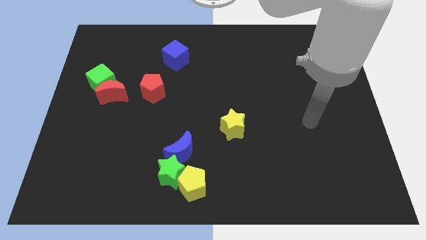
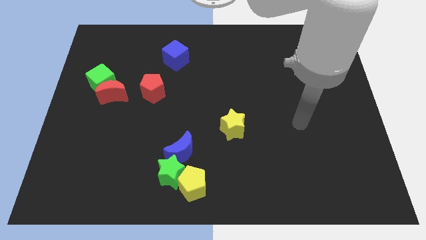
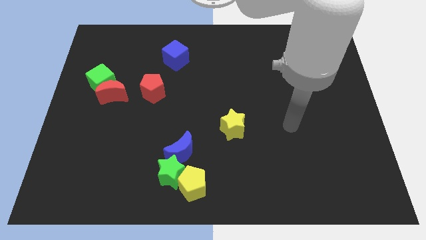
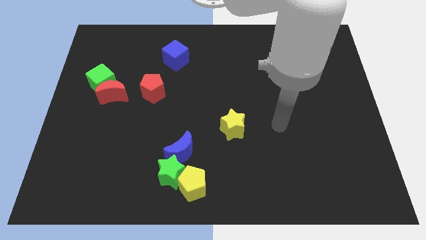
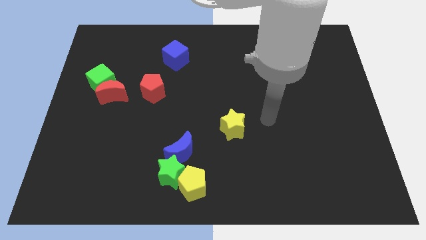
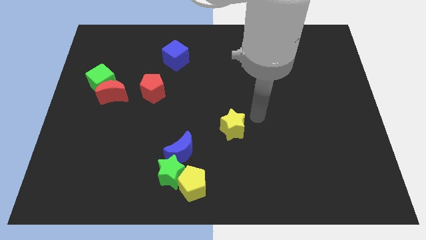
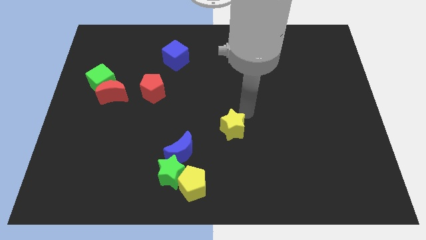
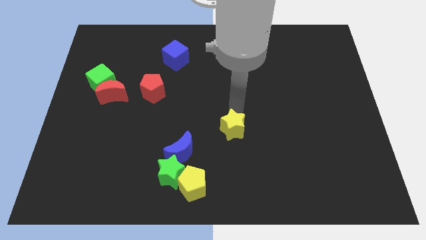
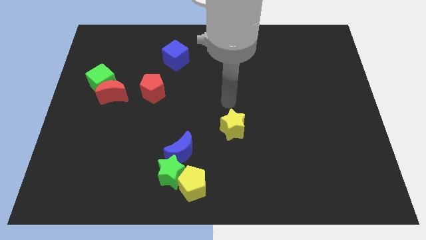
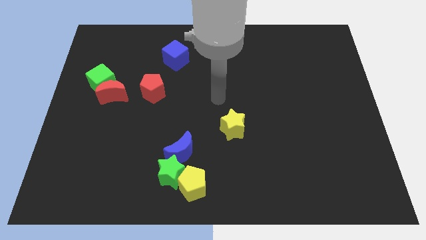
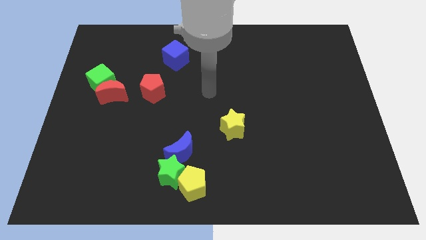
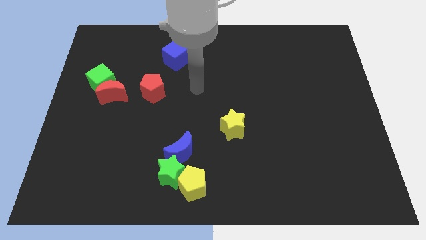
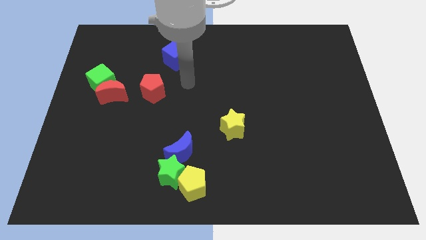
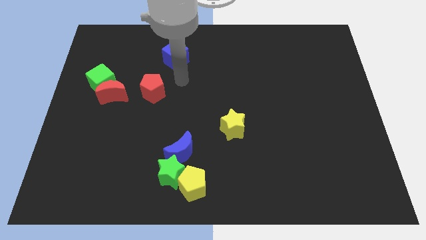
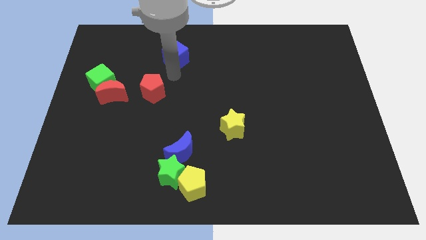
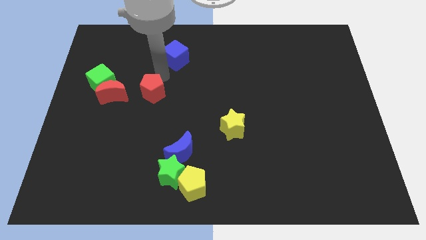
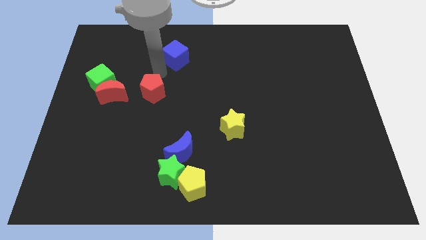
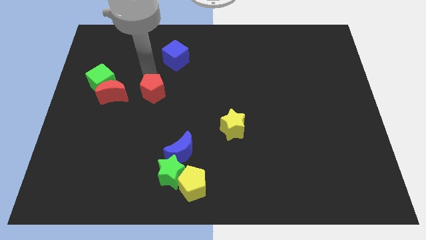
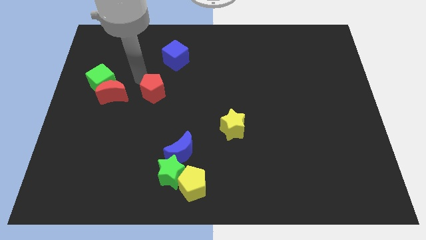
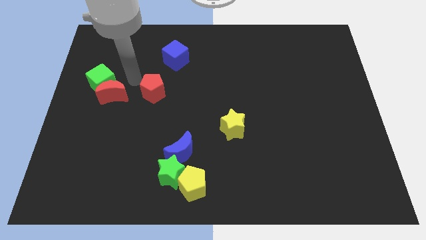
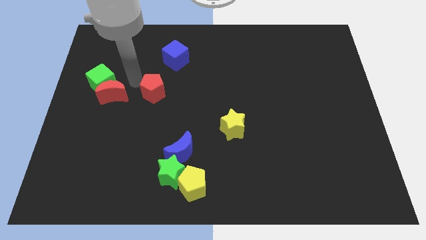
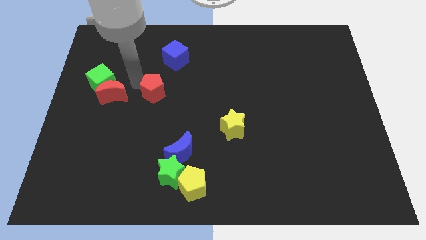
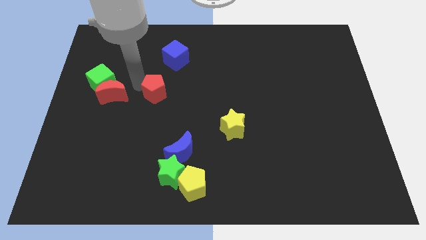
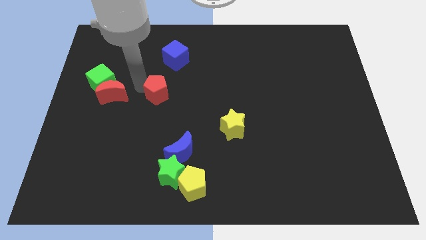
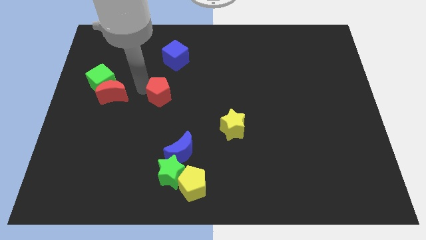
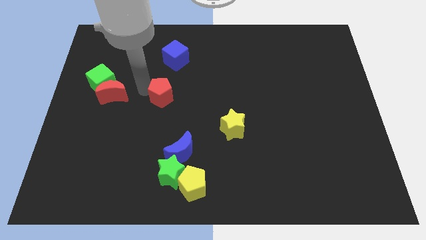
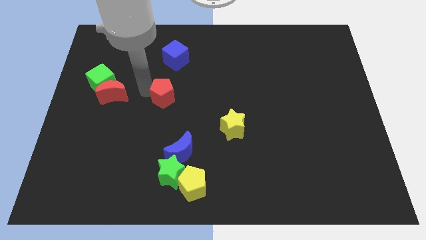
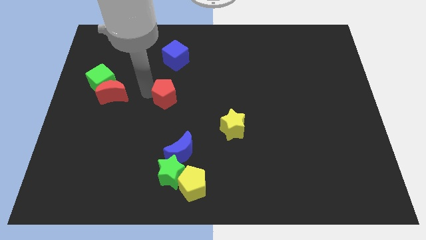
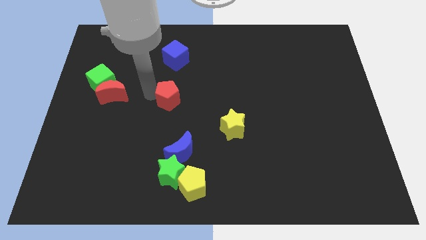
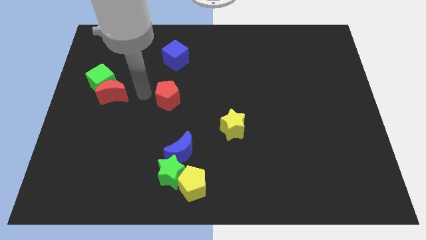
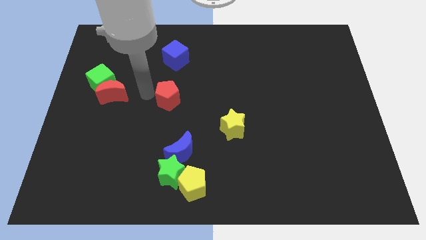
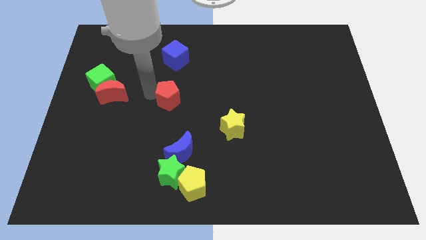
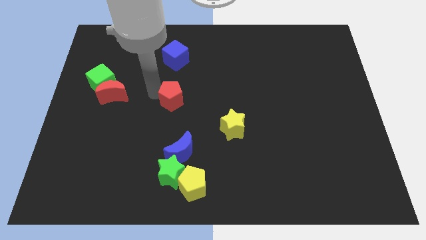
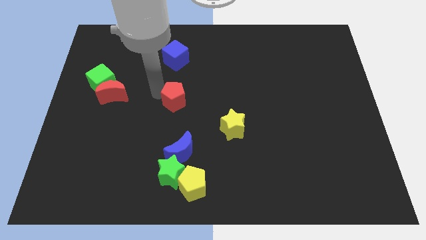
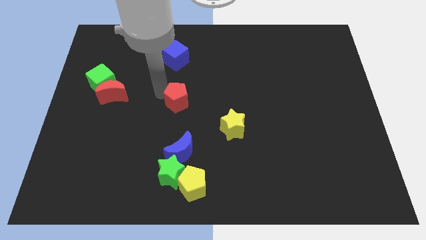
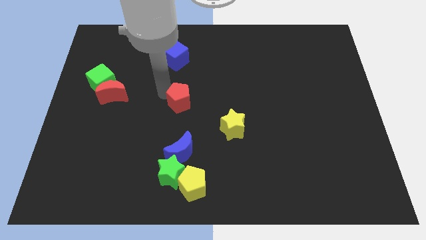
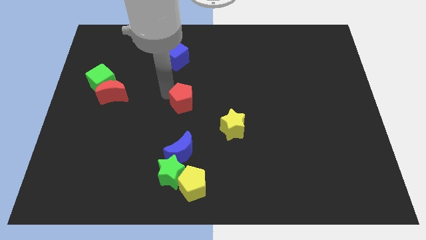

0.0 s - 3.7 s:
push the red pentagon right somewhat

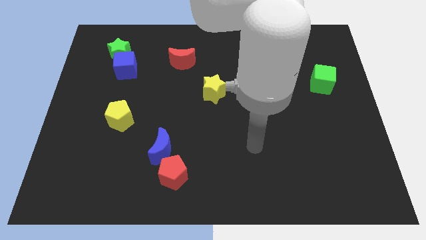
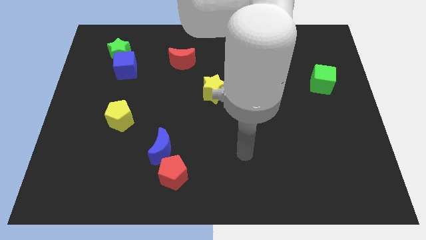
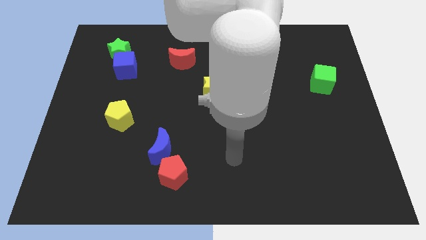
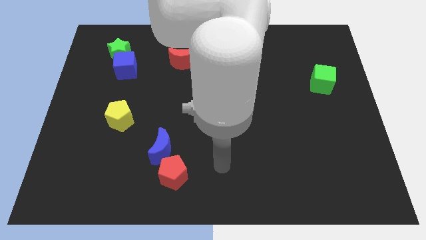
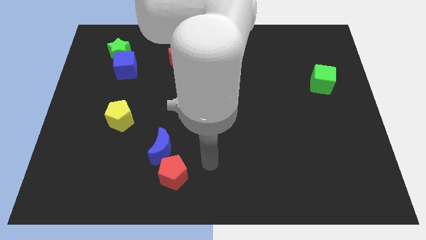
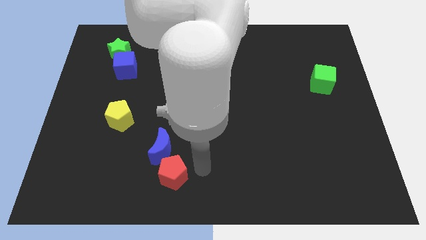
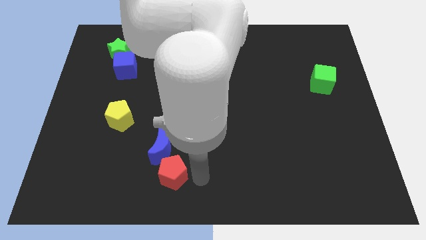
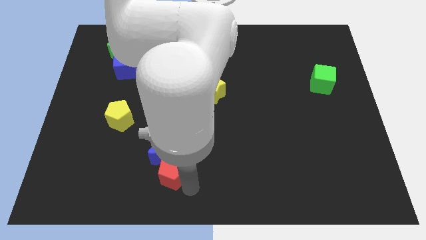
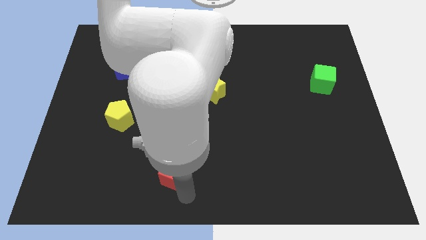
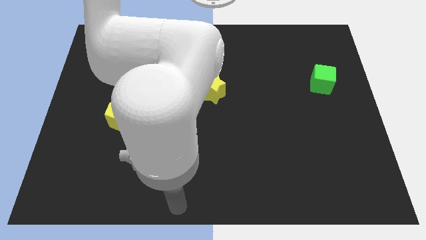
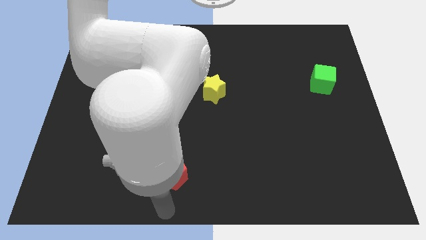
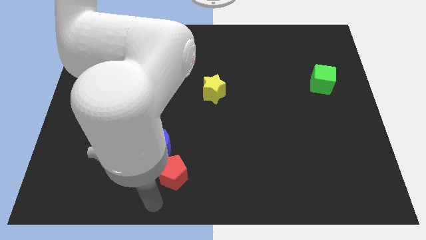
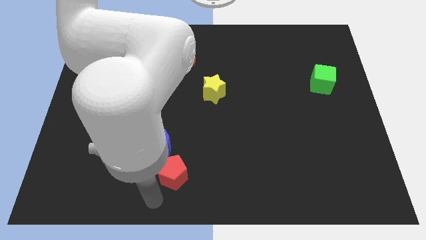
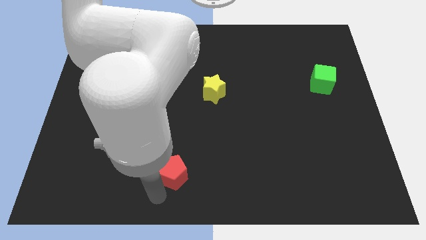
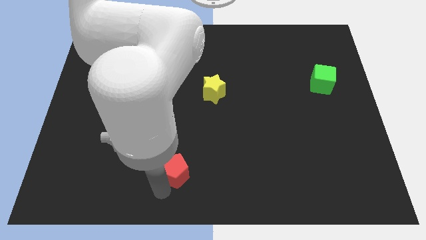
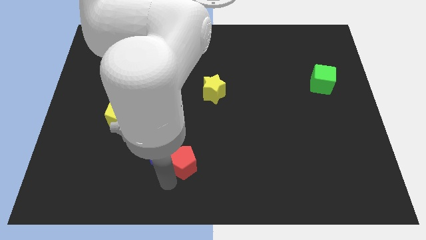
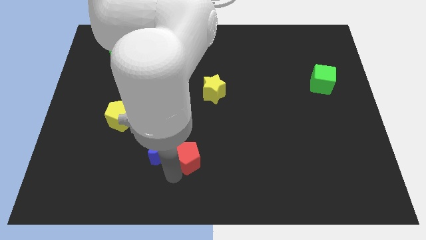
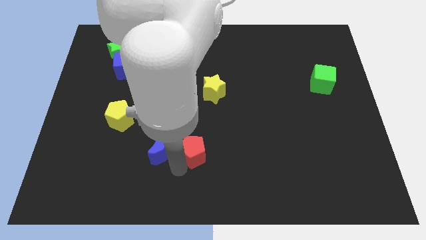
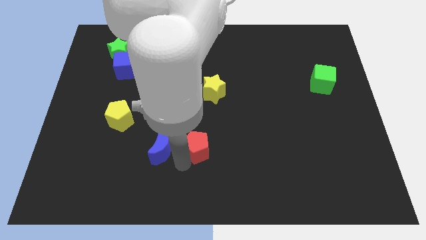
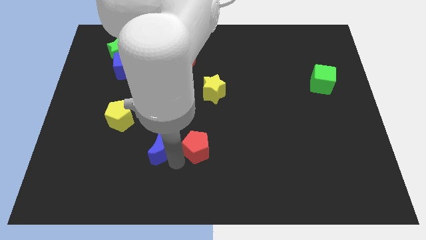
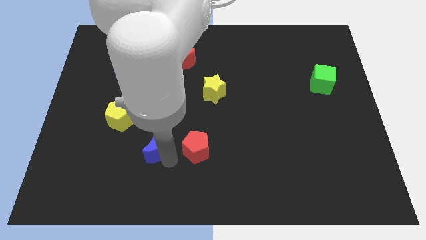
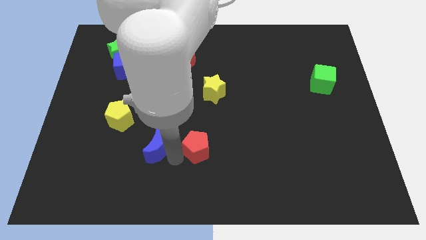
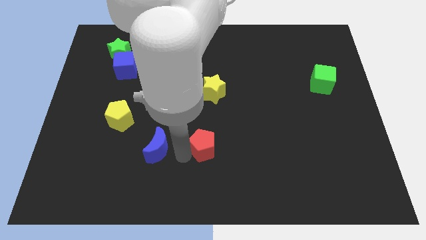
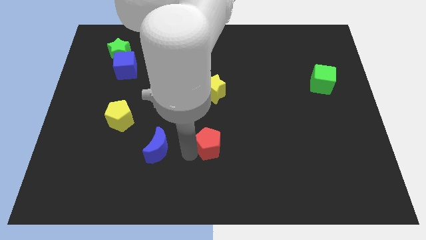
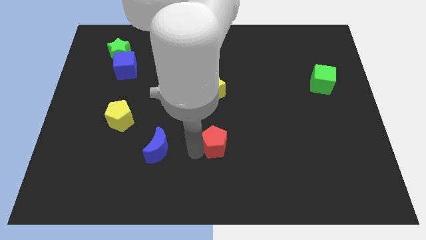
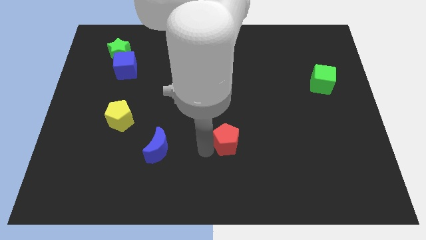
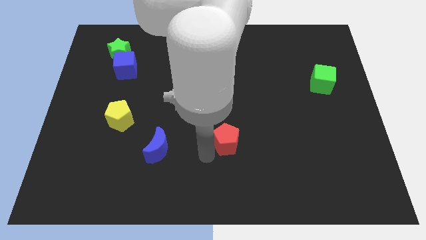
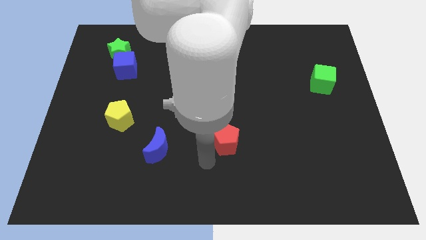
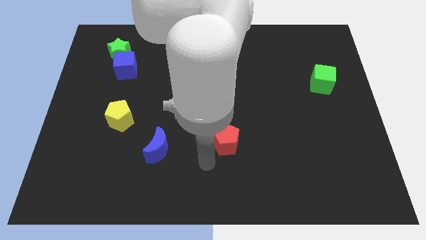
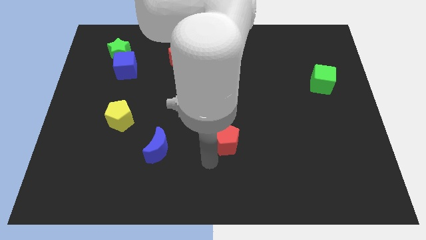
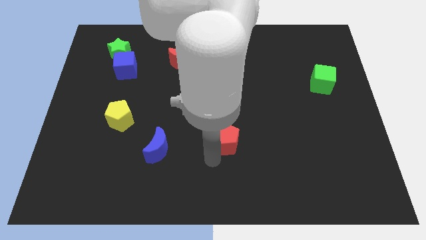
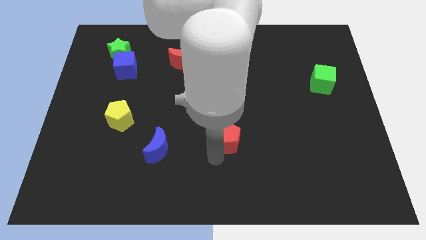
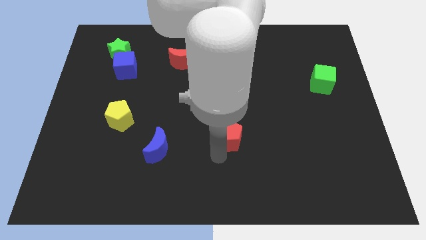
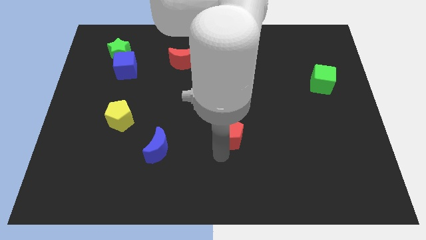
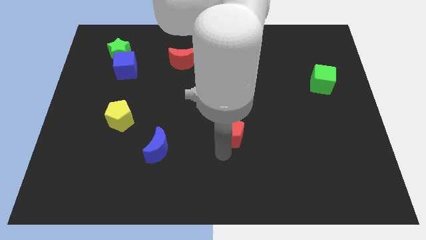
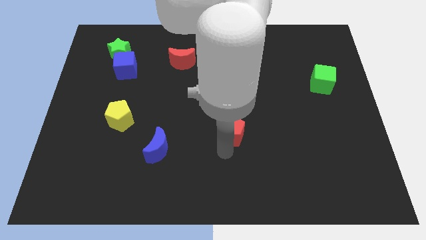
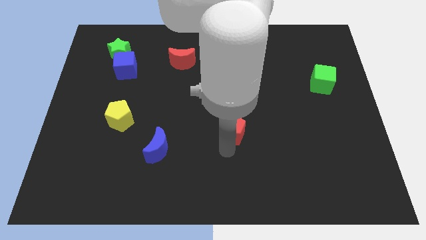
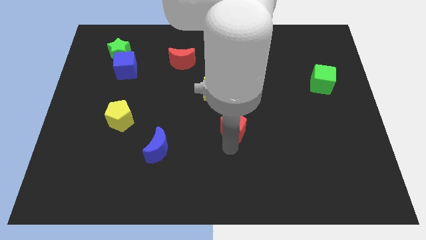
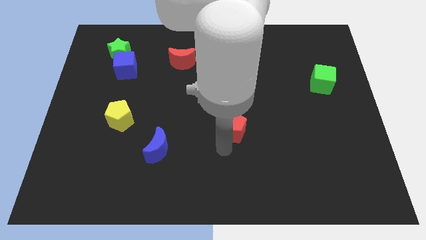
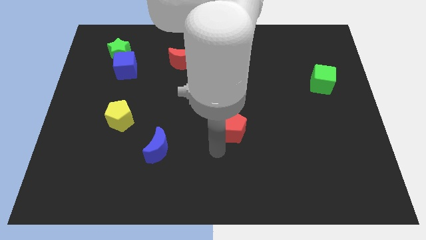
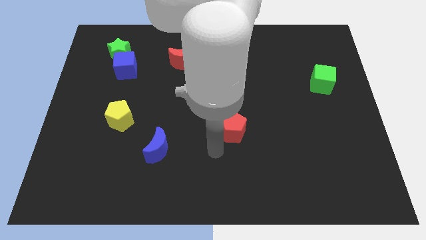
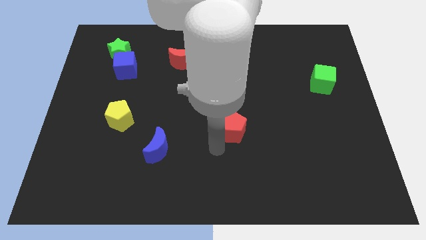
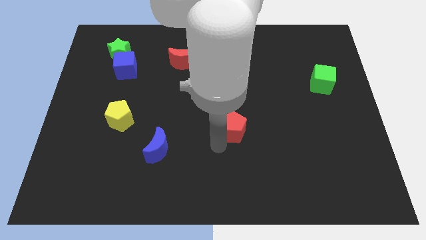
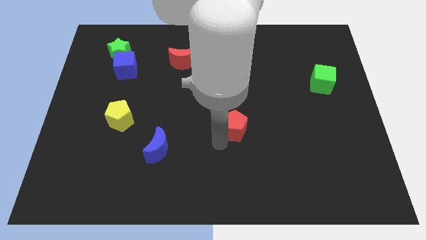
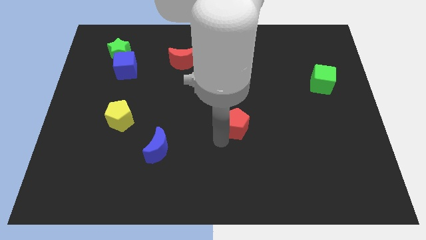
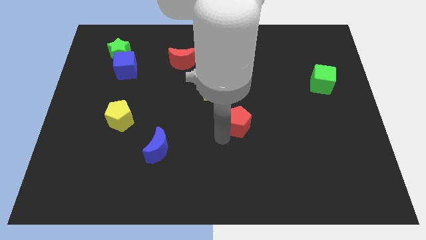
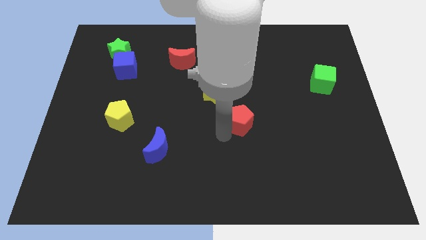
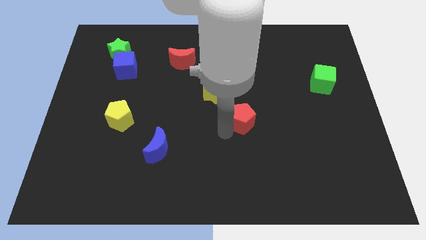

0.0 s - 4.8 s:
slide the red pentagon up and then right
